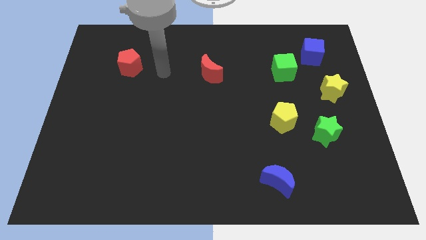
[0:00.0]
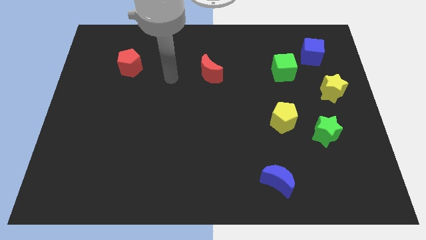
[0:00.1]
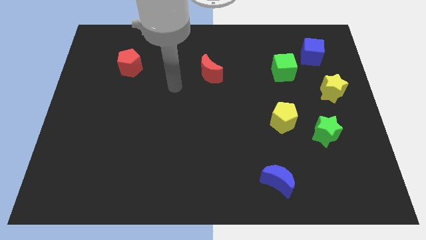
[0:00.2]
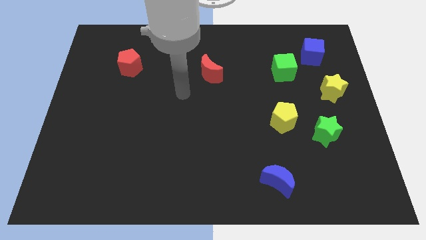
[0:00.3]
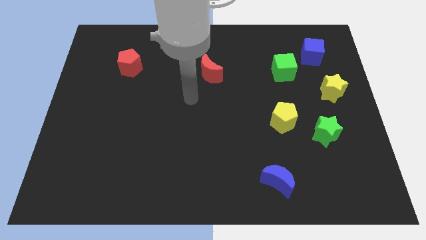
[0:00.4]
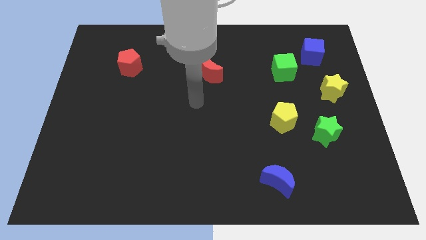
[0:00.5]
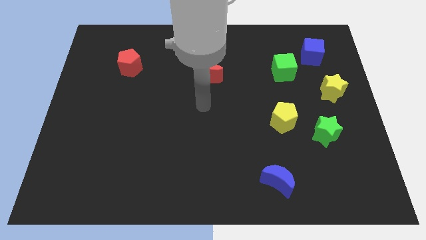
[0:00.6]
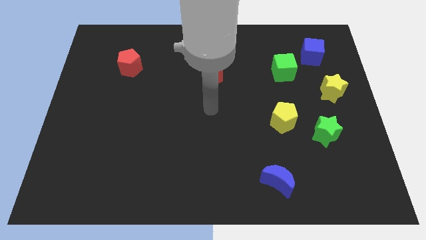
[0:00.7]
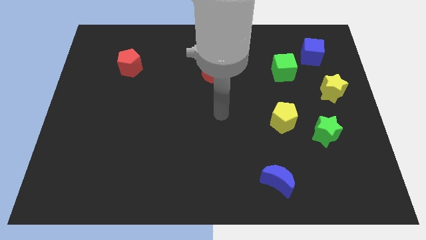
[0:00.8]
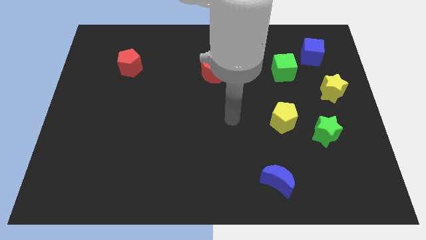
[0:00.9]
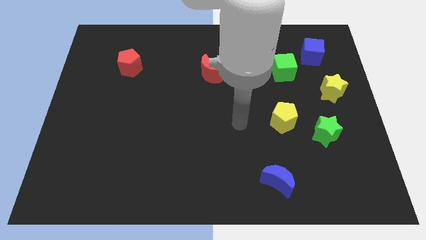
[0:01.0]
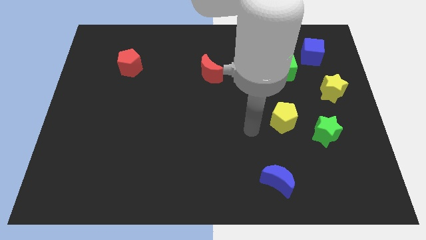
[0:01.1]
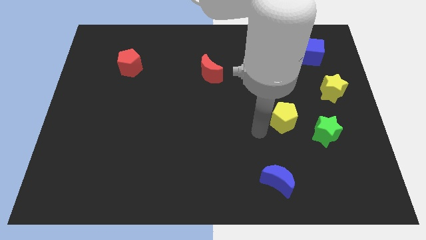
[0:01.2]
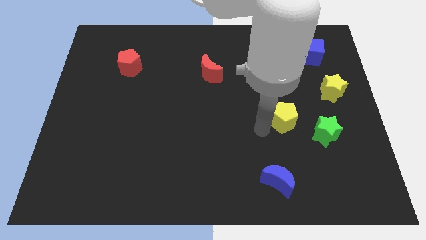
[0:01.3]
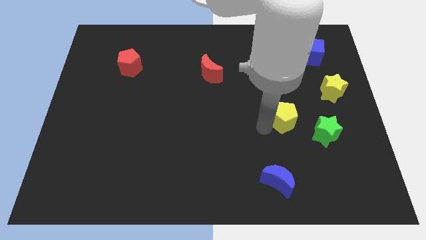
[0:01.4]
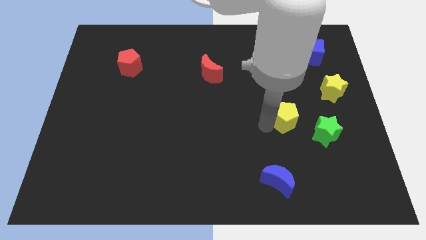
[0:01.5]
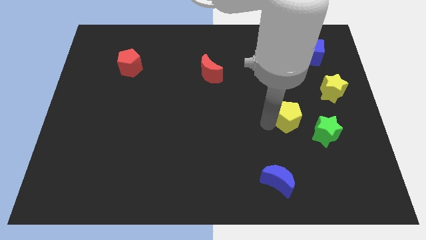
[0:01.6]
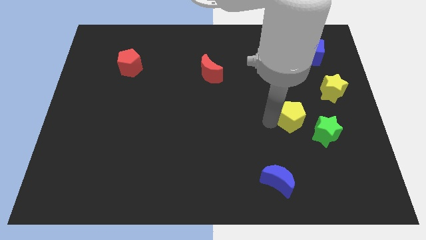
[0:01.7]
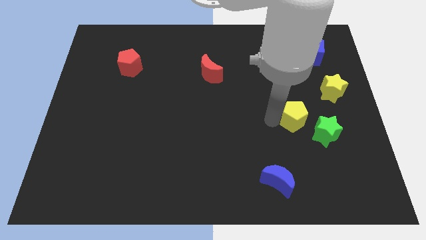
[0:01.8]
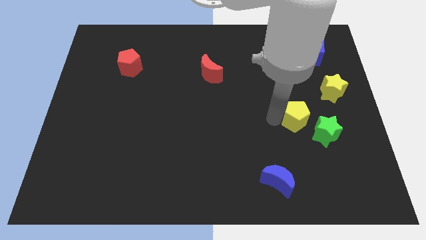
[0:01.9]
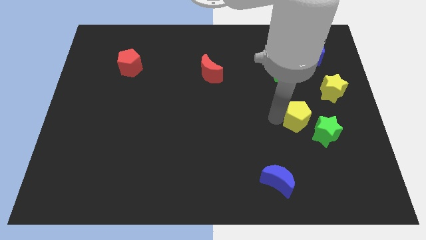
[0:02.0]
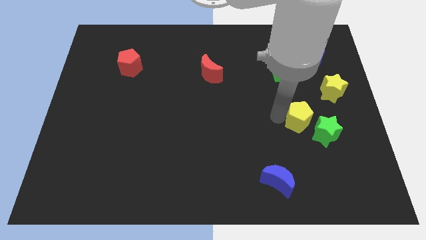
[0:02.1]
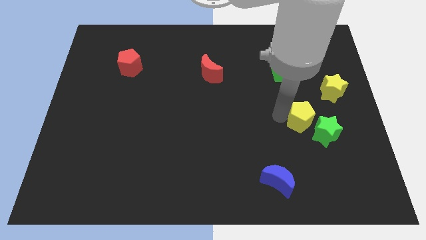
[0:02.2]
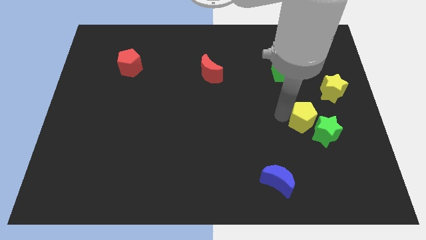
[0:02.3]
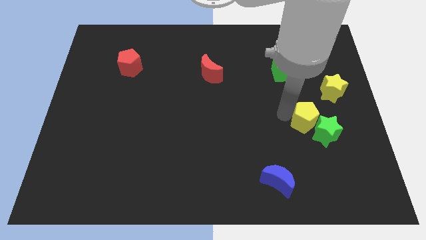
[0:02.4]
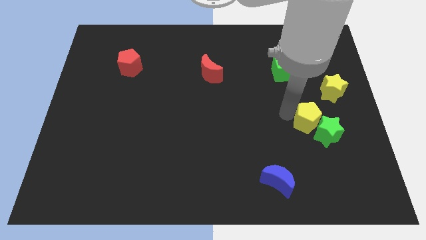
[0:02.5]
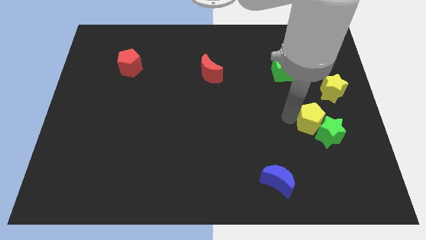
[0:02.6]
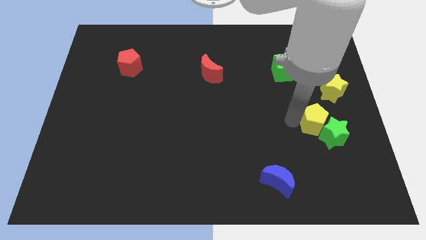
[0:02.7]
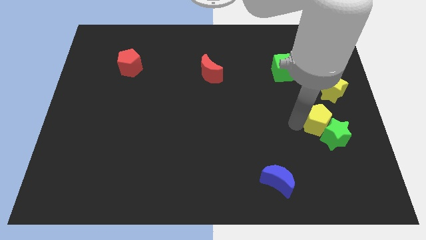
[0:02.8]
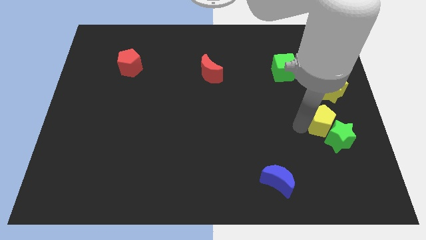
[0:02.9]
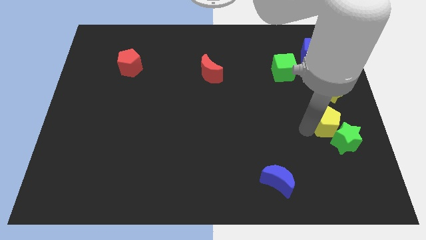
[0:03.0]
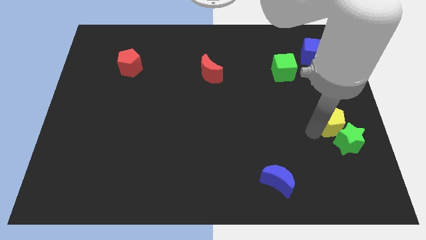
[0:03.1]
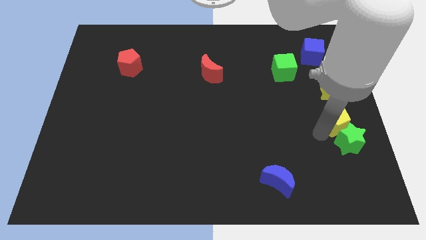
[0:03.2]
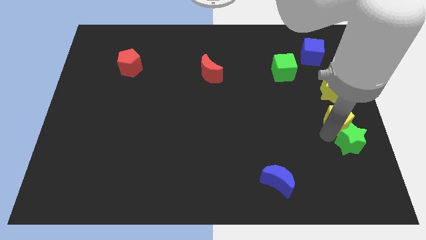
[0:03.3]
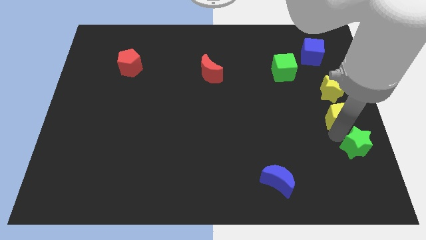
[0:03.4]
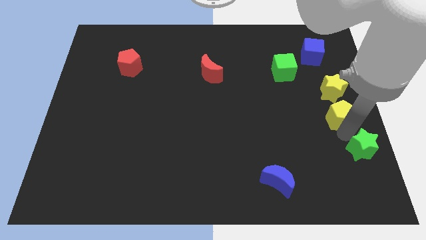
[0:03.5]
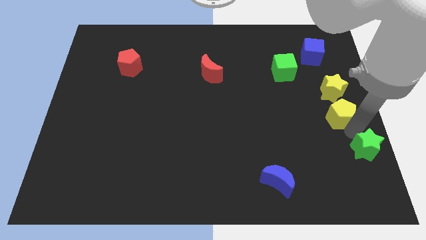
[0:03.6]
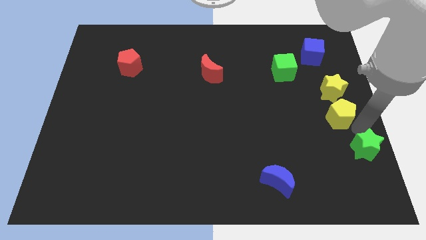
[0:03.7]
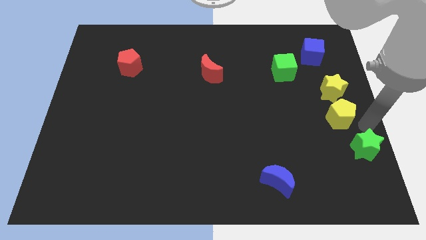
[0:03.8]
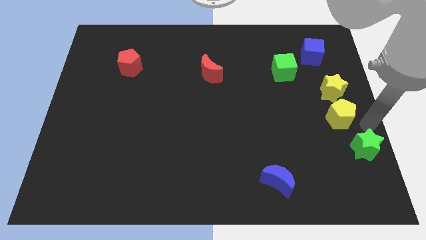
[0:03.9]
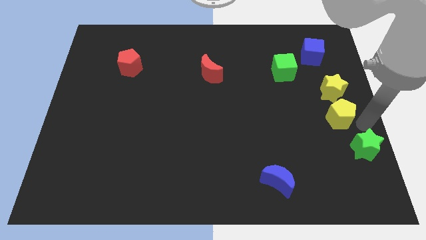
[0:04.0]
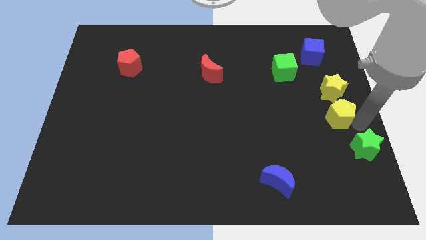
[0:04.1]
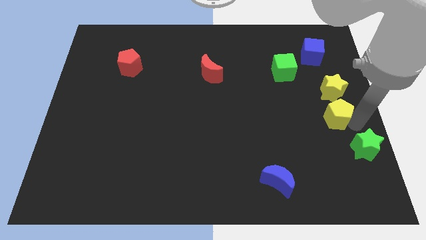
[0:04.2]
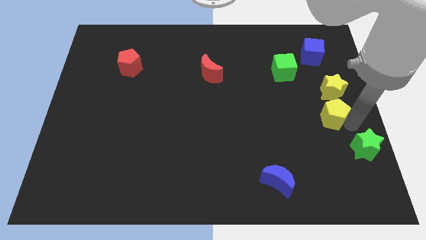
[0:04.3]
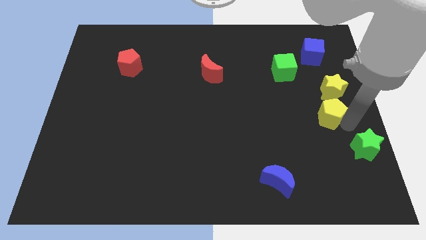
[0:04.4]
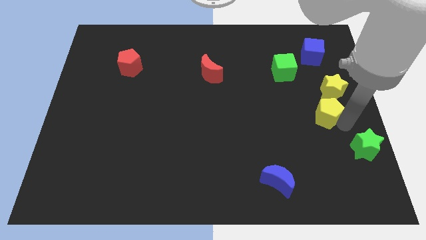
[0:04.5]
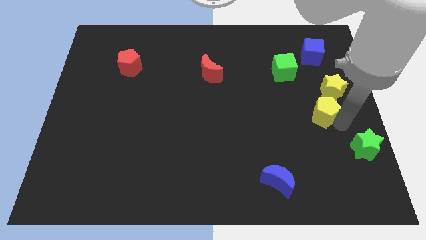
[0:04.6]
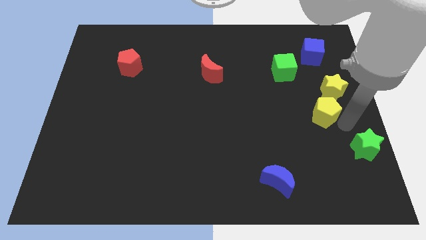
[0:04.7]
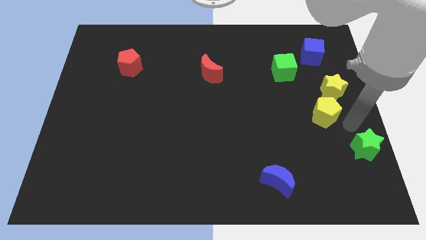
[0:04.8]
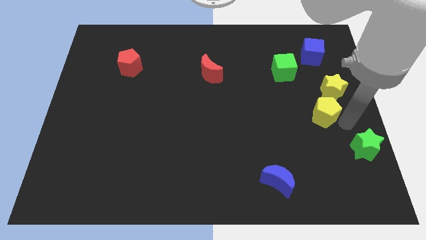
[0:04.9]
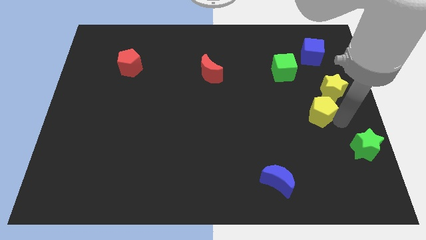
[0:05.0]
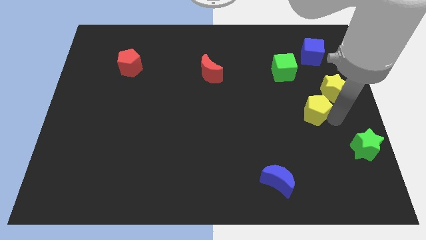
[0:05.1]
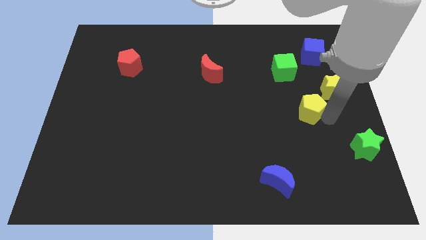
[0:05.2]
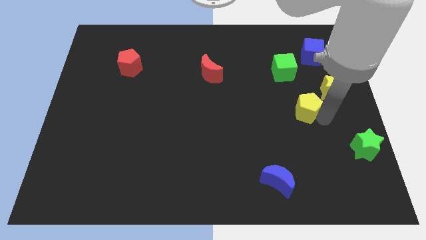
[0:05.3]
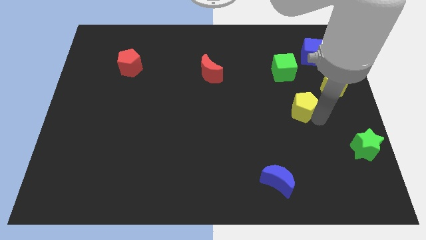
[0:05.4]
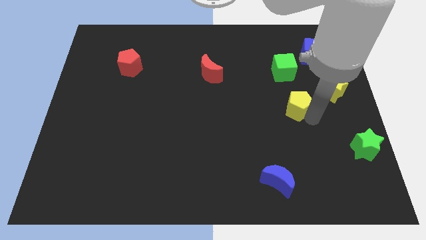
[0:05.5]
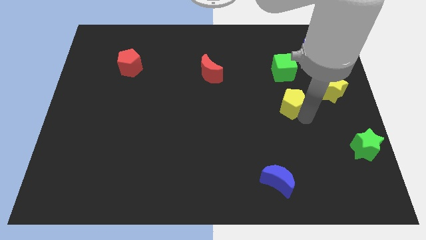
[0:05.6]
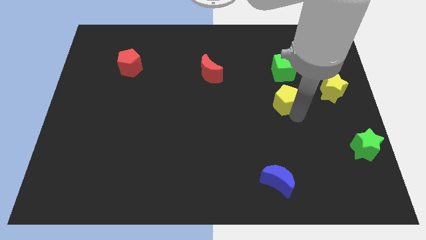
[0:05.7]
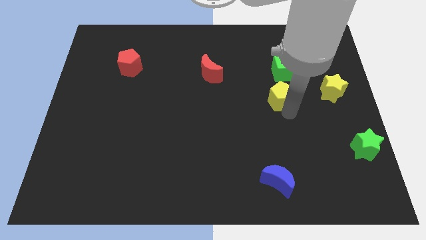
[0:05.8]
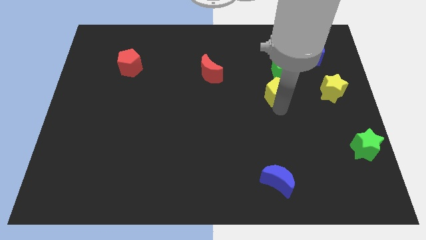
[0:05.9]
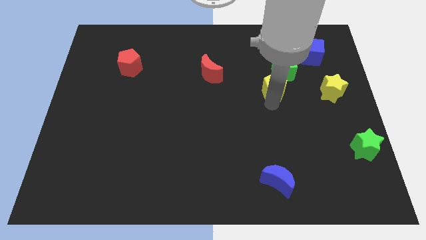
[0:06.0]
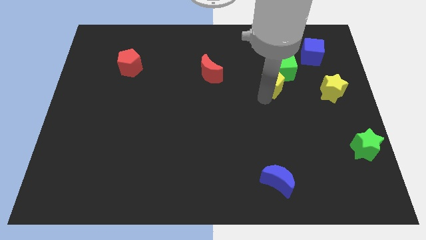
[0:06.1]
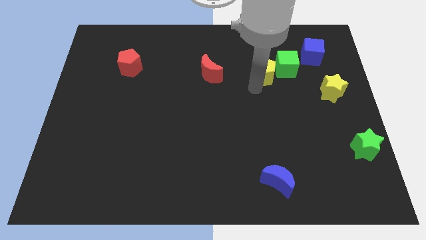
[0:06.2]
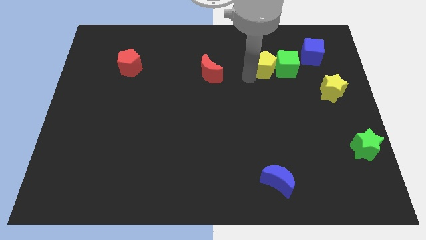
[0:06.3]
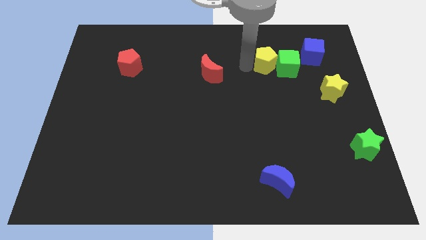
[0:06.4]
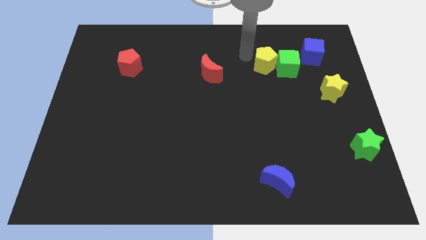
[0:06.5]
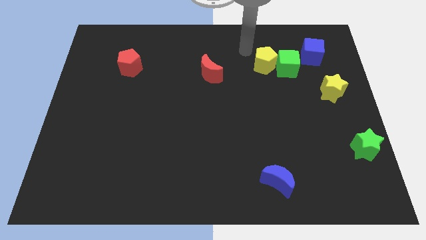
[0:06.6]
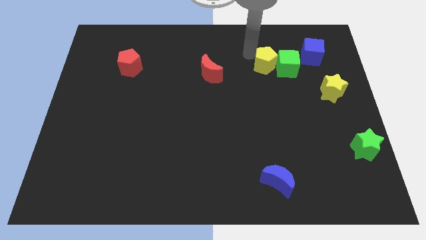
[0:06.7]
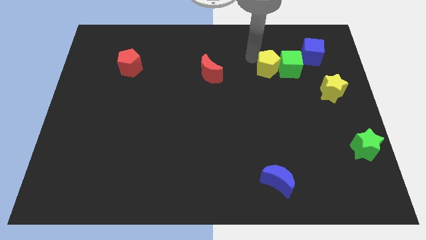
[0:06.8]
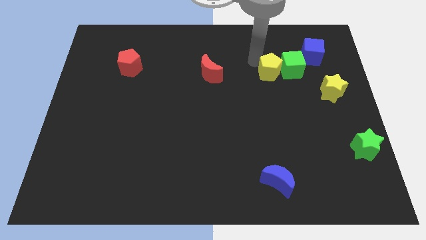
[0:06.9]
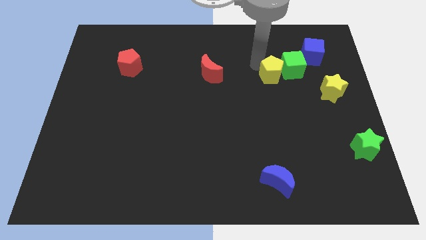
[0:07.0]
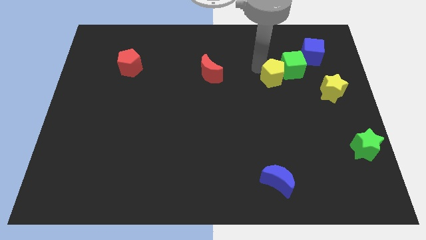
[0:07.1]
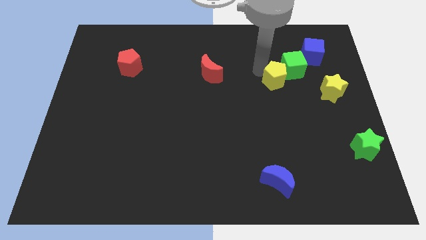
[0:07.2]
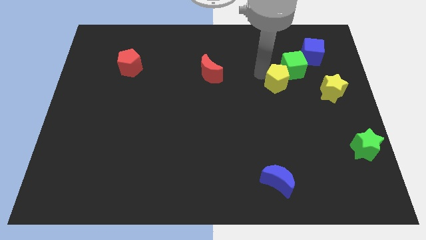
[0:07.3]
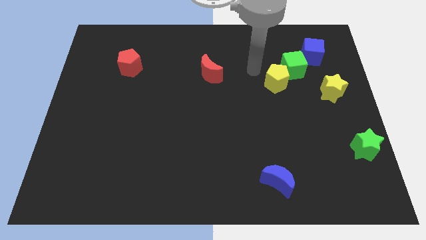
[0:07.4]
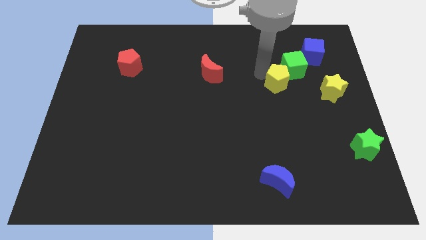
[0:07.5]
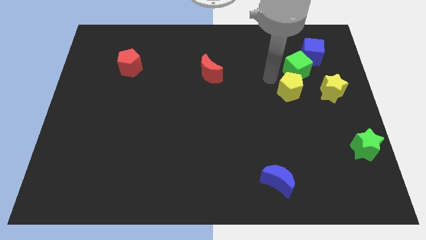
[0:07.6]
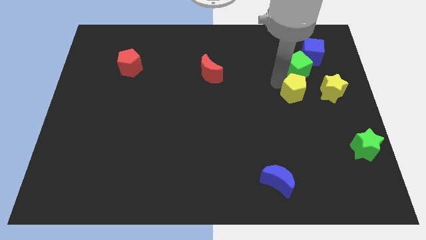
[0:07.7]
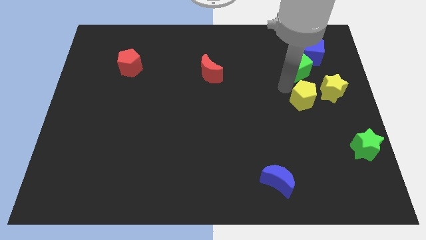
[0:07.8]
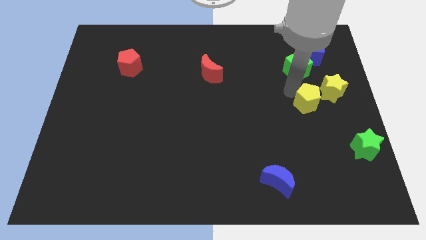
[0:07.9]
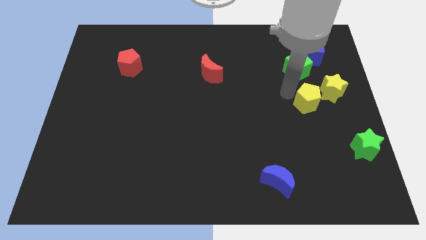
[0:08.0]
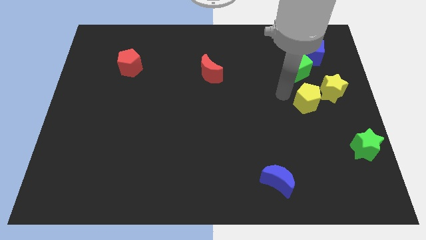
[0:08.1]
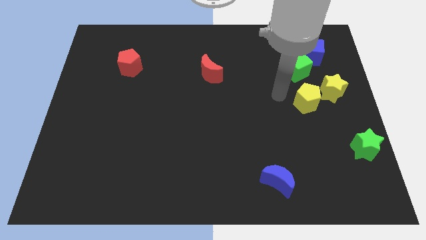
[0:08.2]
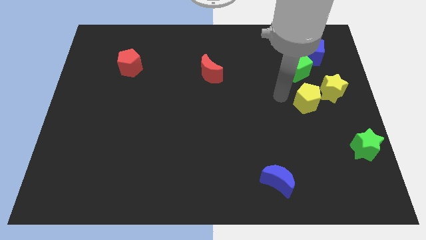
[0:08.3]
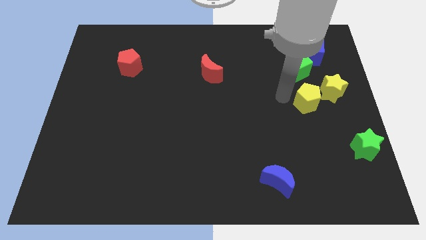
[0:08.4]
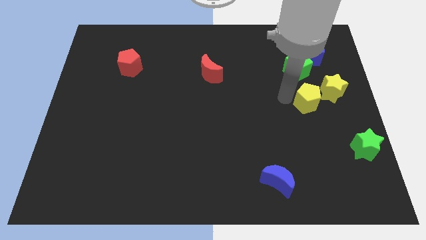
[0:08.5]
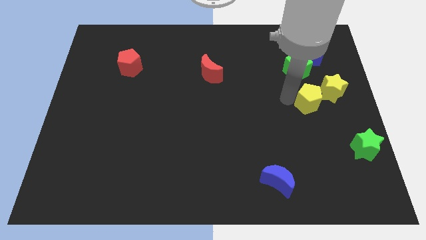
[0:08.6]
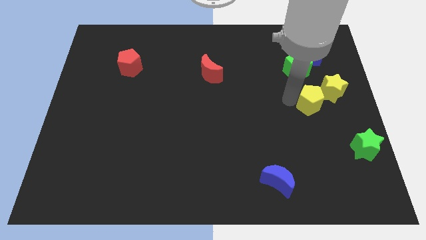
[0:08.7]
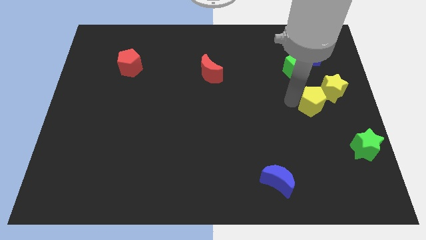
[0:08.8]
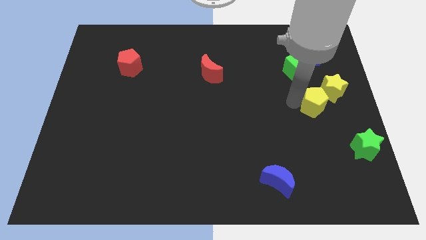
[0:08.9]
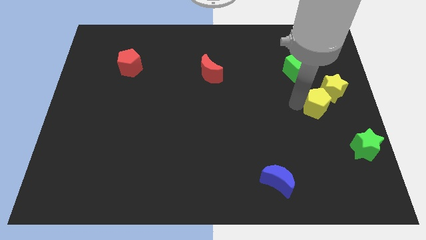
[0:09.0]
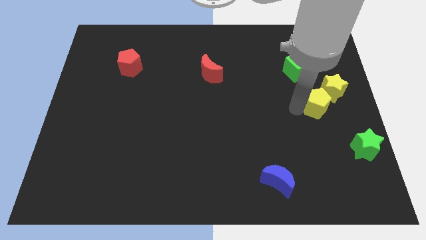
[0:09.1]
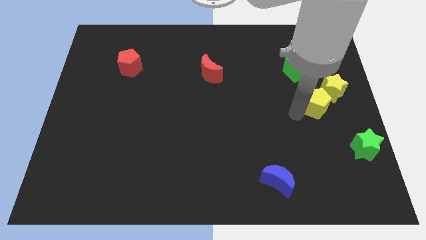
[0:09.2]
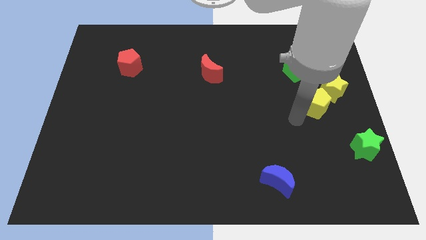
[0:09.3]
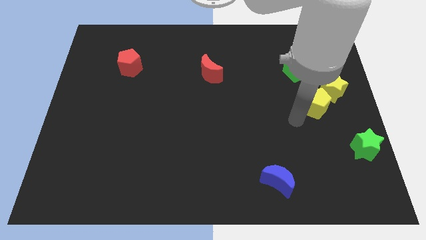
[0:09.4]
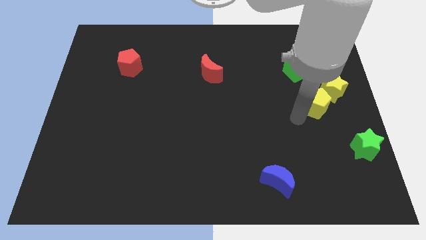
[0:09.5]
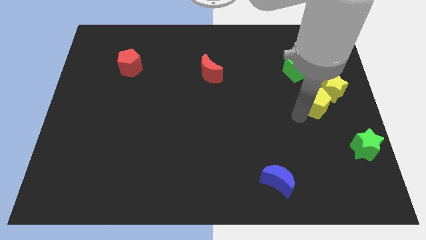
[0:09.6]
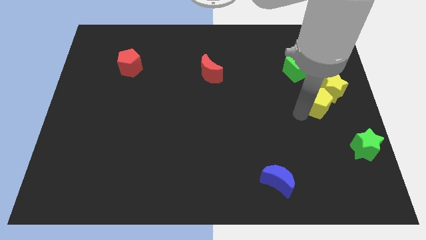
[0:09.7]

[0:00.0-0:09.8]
put the yellow pentagon close to the yellow star
